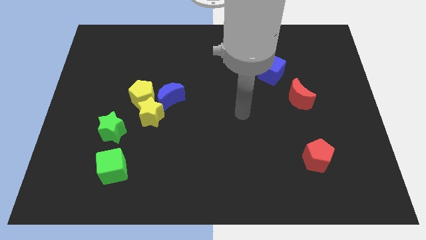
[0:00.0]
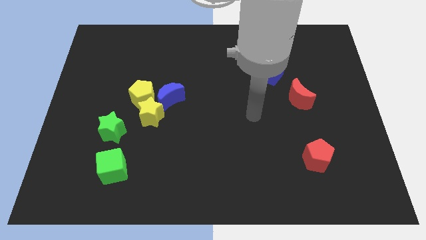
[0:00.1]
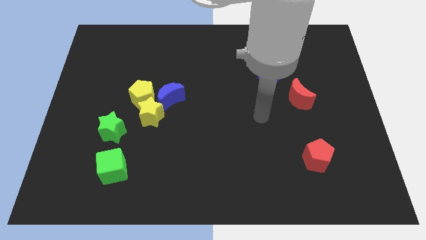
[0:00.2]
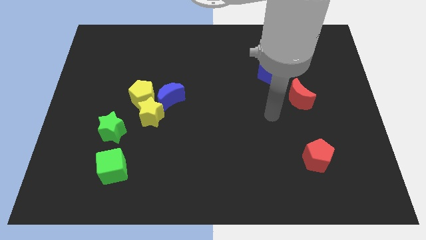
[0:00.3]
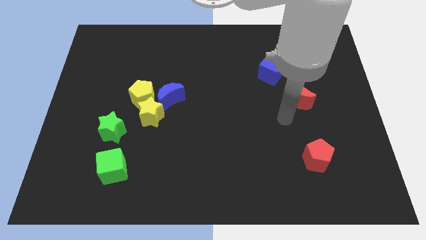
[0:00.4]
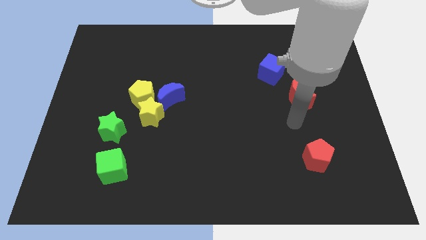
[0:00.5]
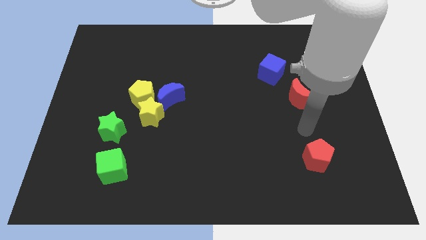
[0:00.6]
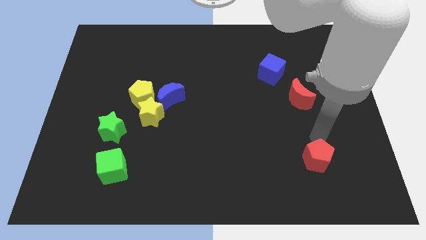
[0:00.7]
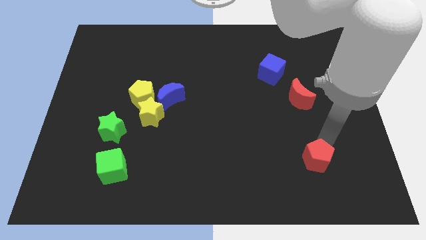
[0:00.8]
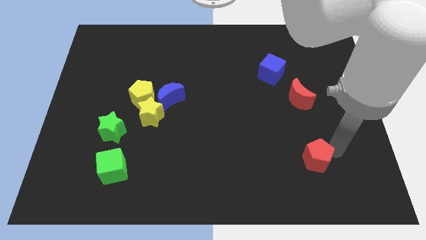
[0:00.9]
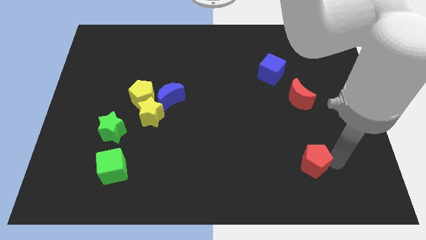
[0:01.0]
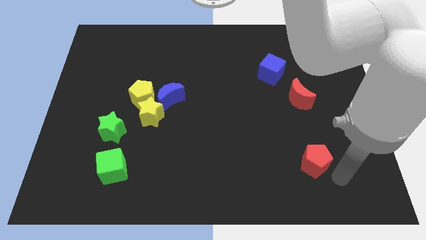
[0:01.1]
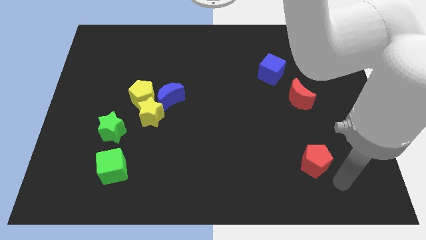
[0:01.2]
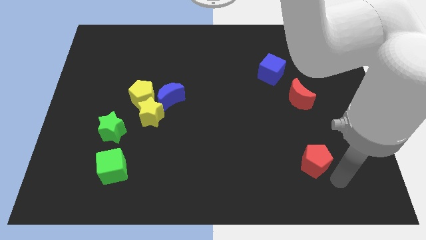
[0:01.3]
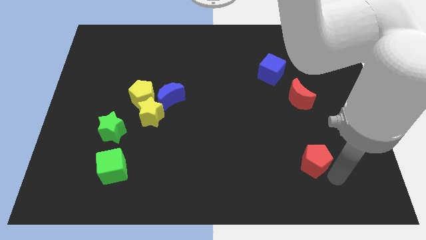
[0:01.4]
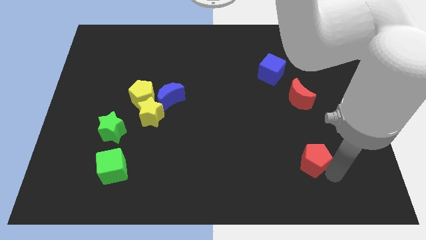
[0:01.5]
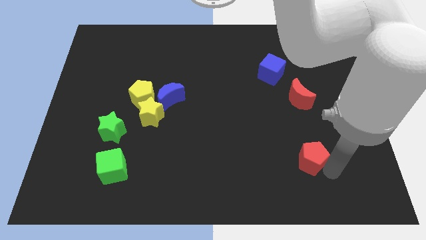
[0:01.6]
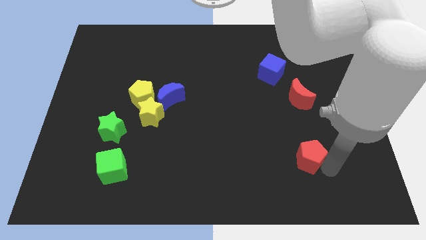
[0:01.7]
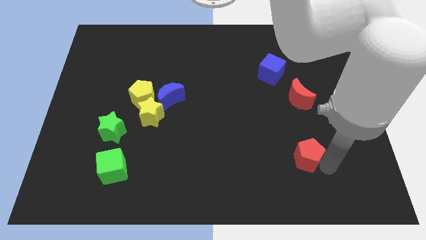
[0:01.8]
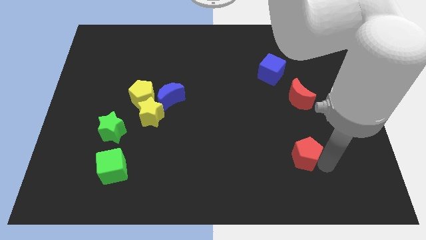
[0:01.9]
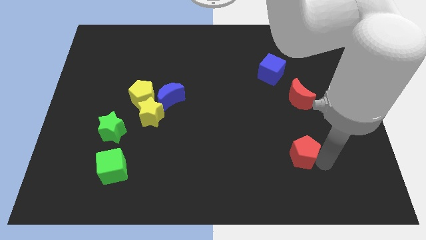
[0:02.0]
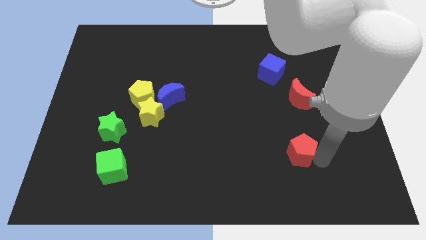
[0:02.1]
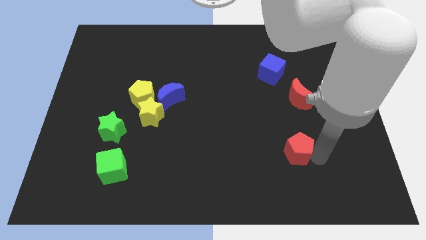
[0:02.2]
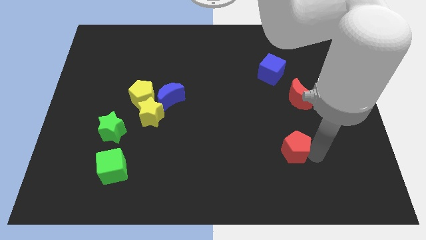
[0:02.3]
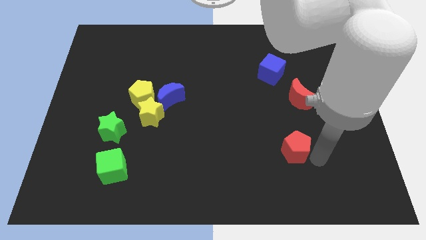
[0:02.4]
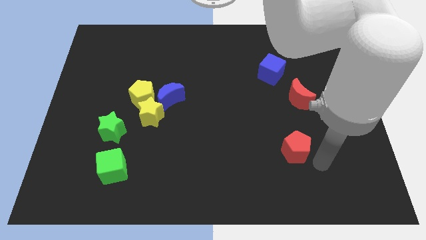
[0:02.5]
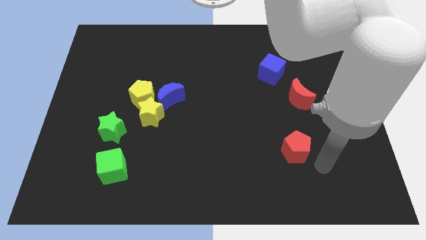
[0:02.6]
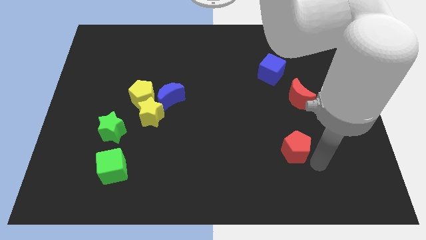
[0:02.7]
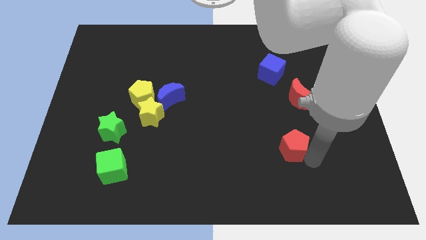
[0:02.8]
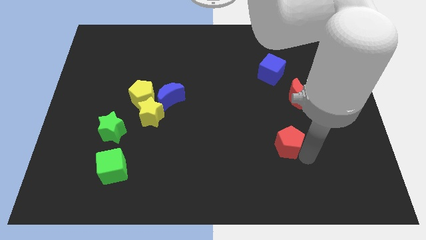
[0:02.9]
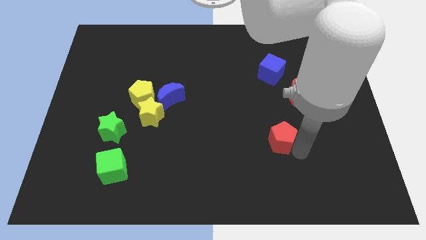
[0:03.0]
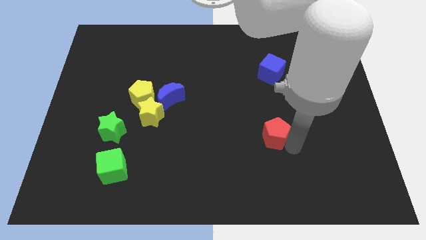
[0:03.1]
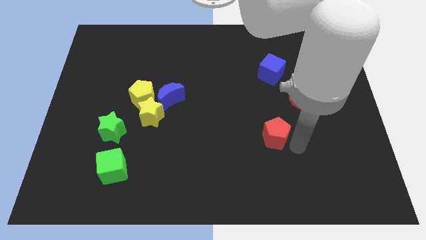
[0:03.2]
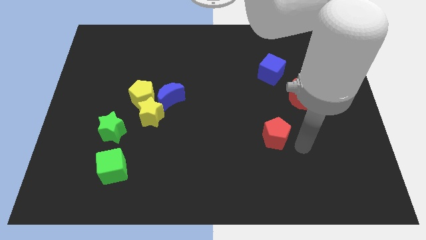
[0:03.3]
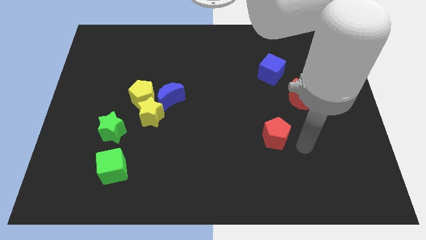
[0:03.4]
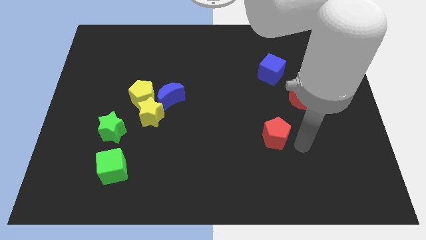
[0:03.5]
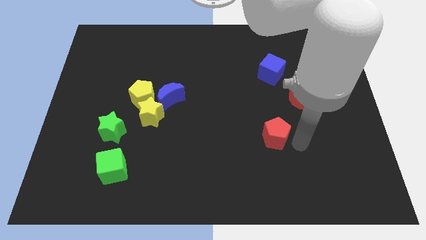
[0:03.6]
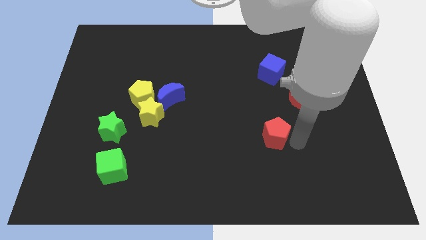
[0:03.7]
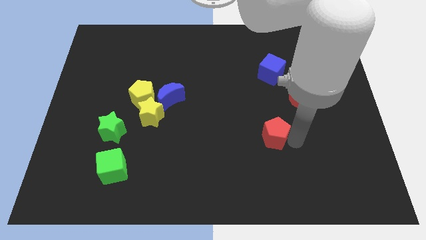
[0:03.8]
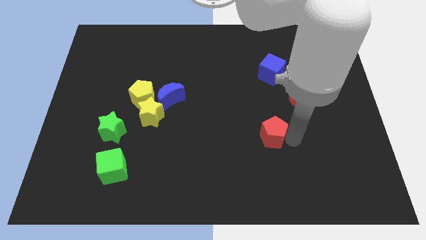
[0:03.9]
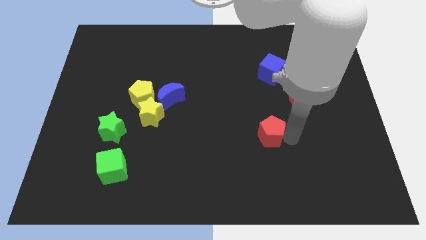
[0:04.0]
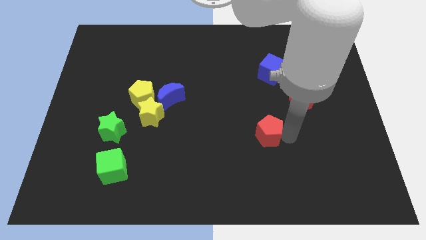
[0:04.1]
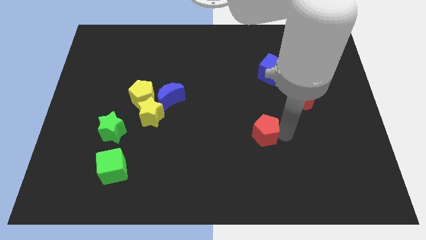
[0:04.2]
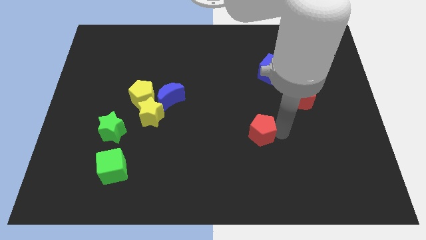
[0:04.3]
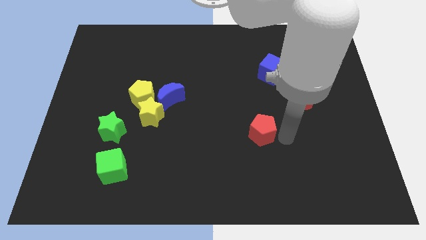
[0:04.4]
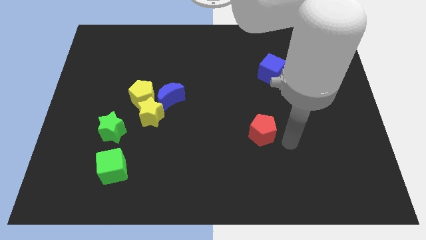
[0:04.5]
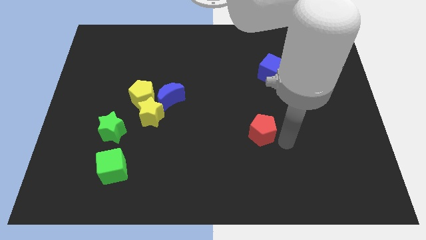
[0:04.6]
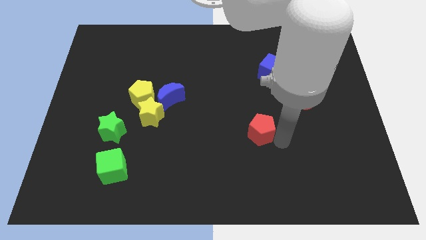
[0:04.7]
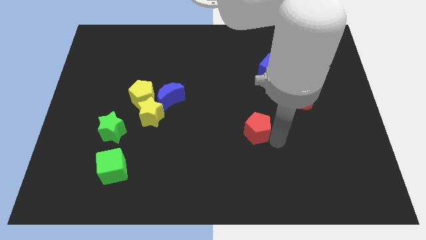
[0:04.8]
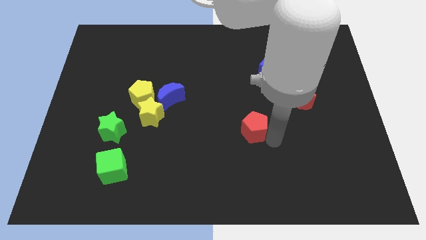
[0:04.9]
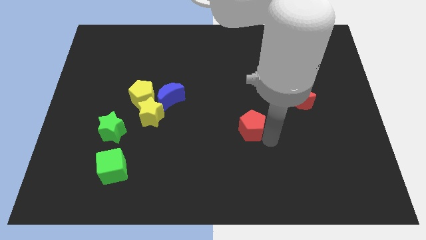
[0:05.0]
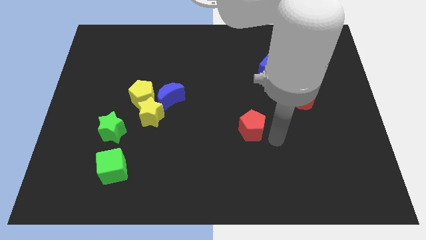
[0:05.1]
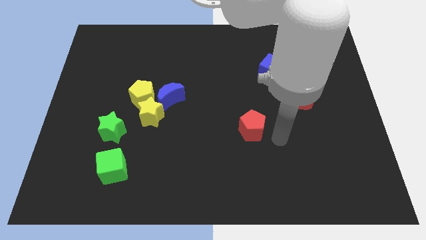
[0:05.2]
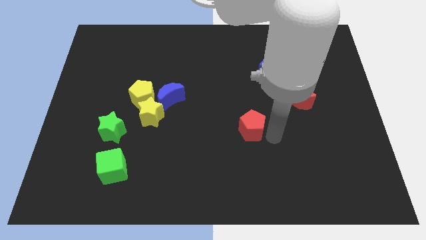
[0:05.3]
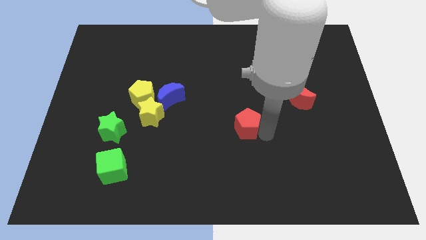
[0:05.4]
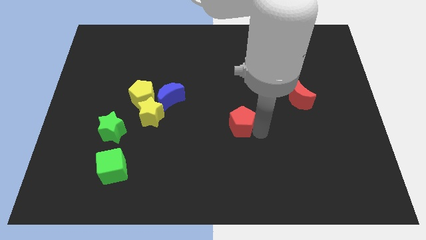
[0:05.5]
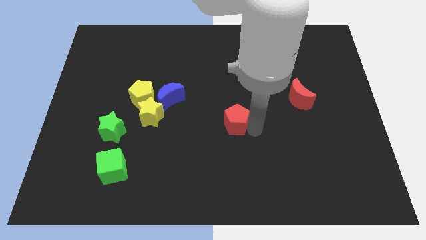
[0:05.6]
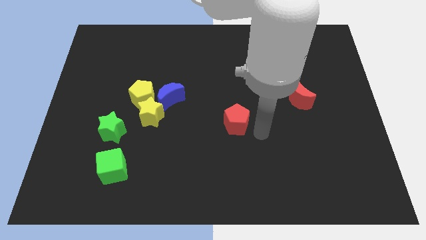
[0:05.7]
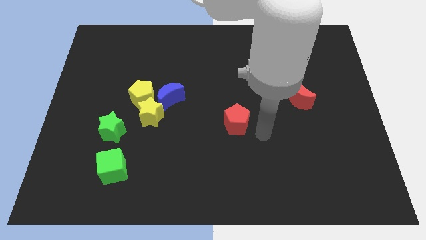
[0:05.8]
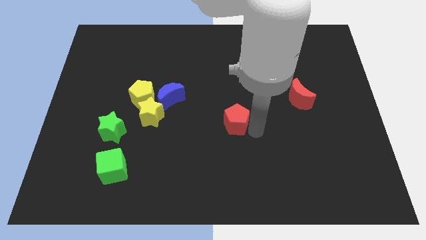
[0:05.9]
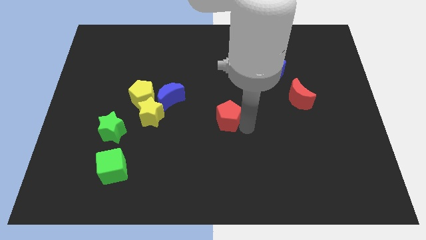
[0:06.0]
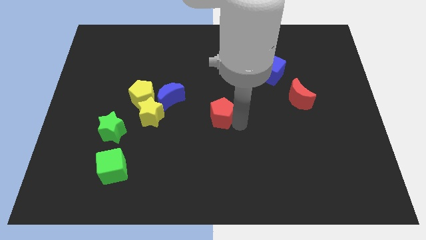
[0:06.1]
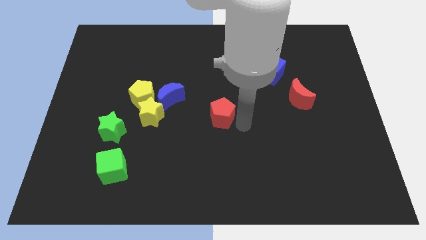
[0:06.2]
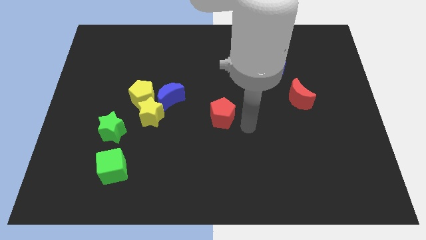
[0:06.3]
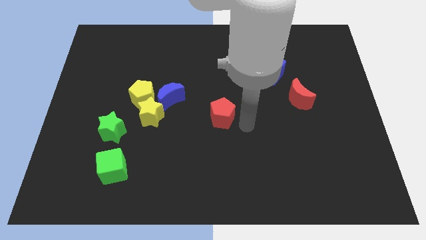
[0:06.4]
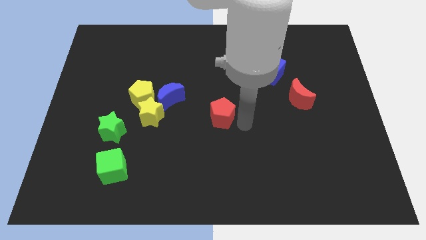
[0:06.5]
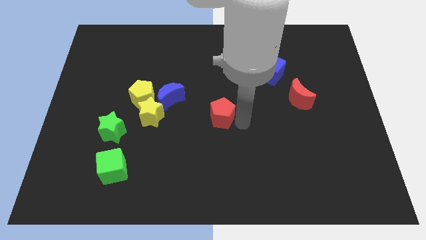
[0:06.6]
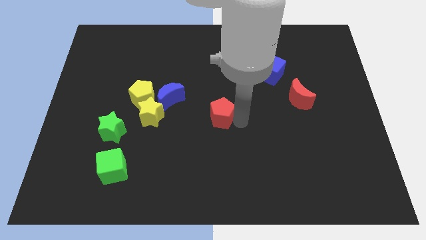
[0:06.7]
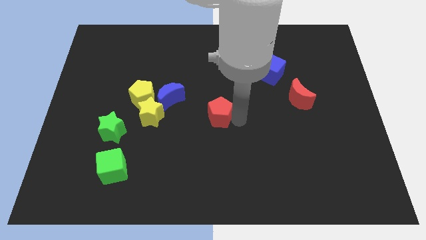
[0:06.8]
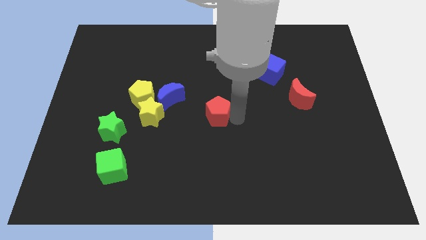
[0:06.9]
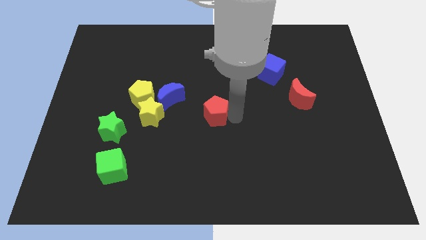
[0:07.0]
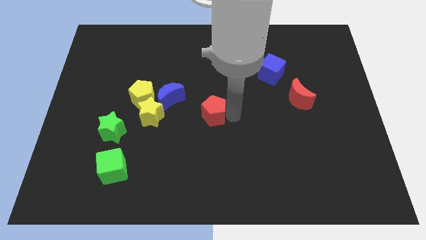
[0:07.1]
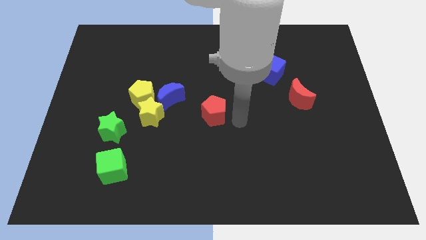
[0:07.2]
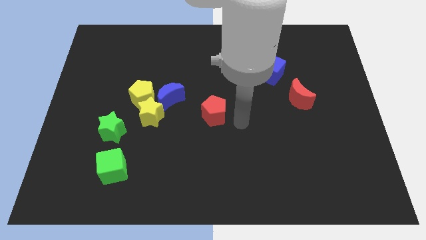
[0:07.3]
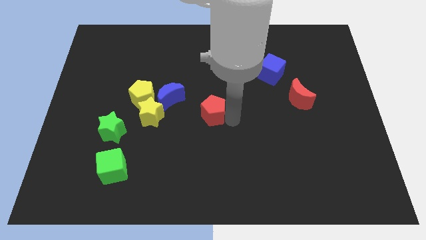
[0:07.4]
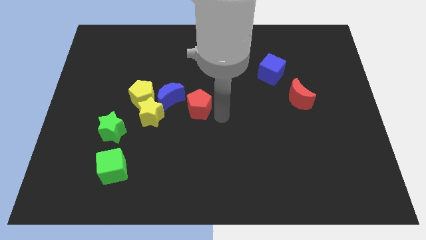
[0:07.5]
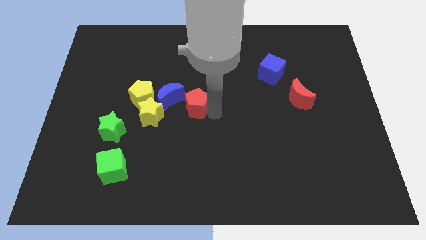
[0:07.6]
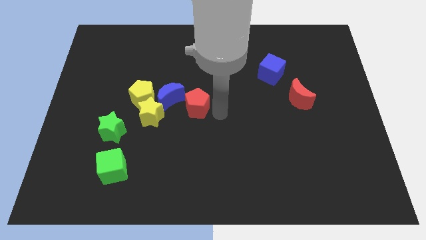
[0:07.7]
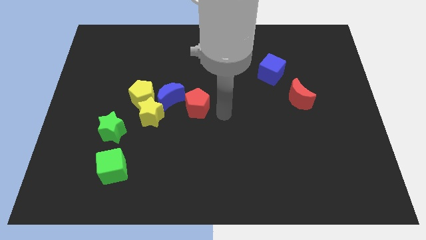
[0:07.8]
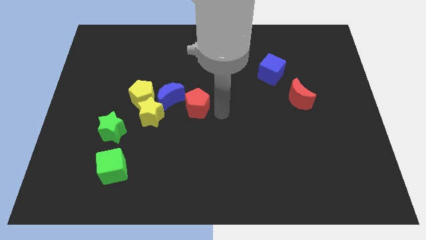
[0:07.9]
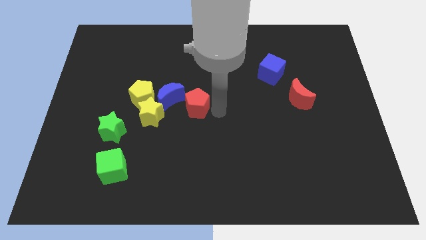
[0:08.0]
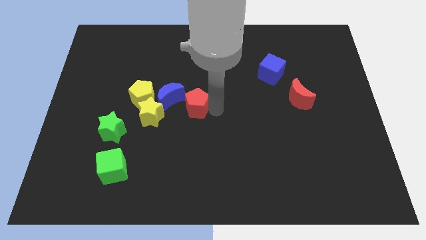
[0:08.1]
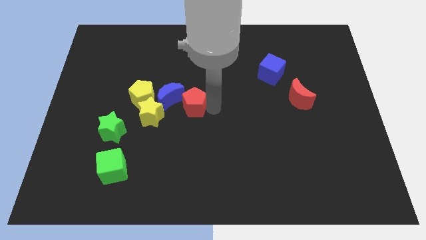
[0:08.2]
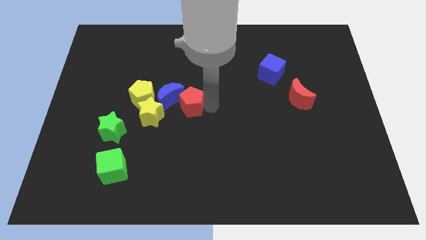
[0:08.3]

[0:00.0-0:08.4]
slide the red pentagon to the blue moon
